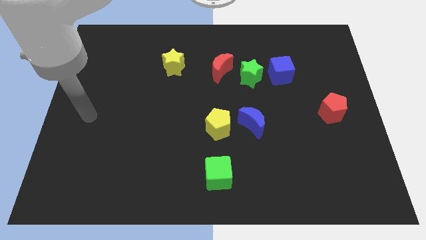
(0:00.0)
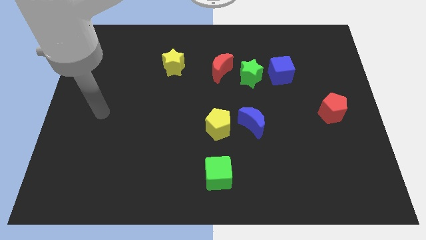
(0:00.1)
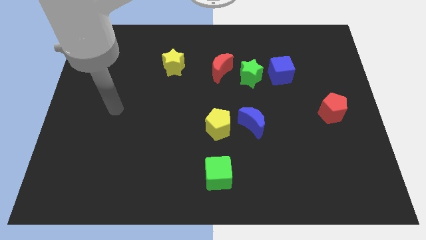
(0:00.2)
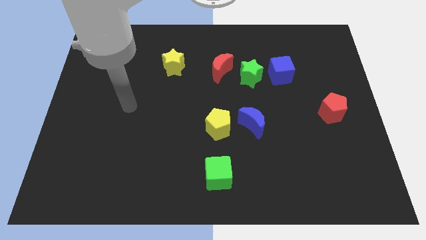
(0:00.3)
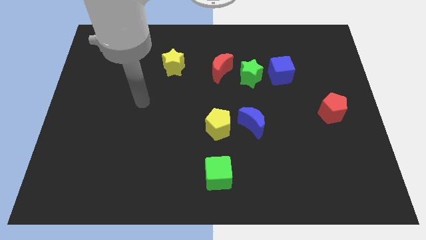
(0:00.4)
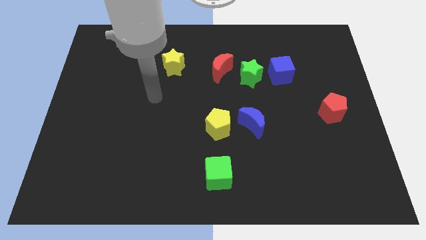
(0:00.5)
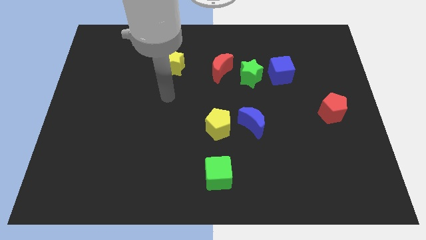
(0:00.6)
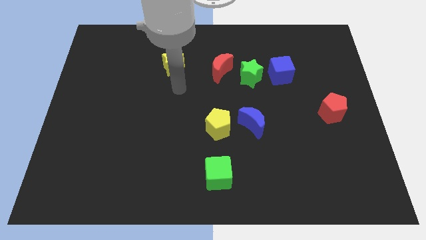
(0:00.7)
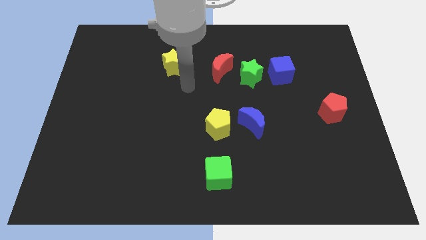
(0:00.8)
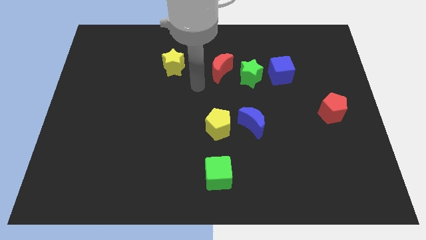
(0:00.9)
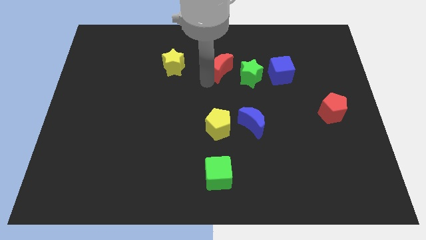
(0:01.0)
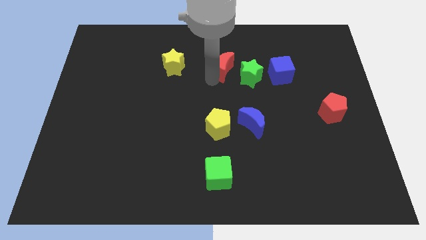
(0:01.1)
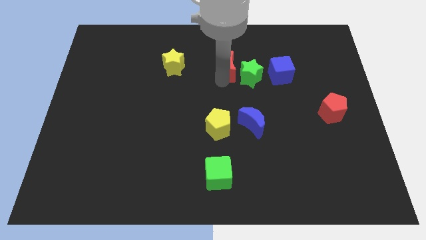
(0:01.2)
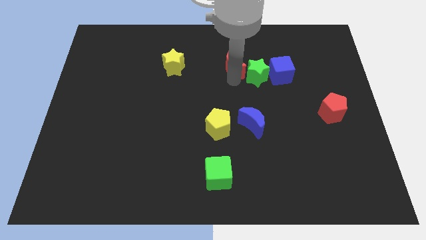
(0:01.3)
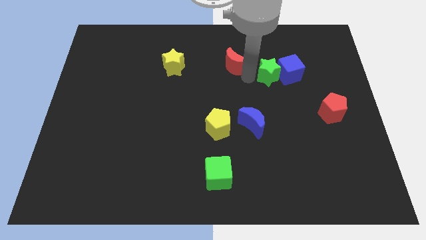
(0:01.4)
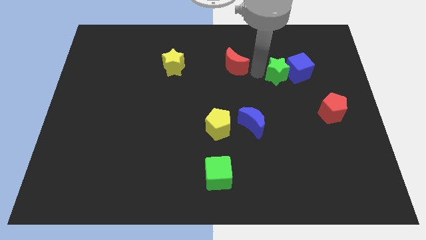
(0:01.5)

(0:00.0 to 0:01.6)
separate the red moon from the green star

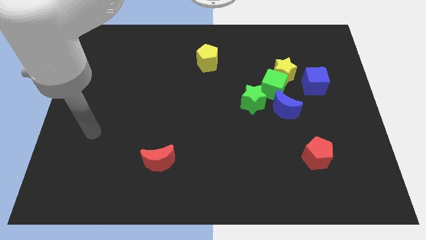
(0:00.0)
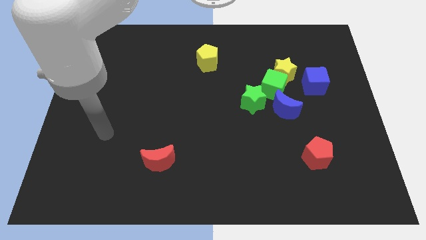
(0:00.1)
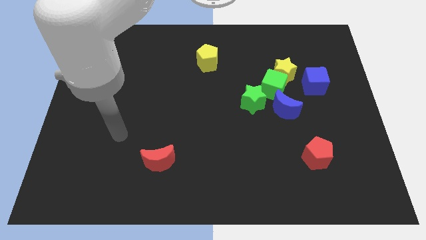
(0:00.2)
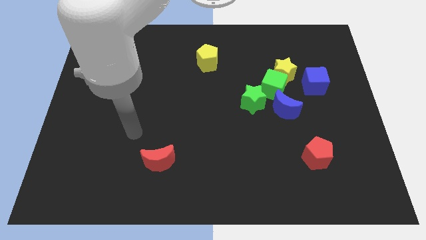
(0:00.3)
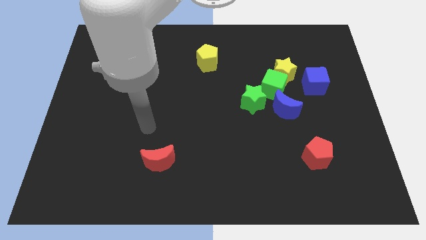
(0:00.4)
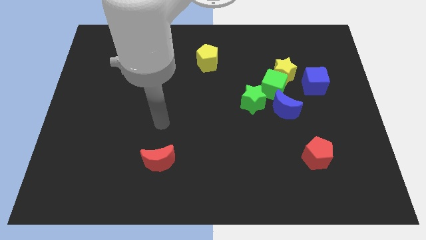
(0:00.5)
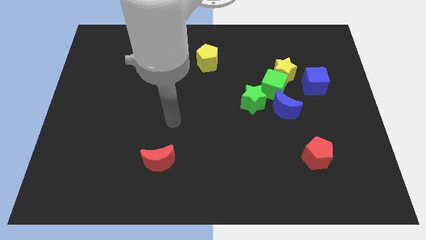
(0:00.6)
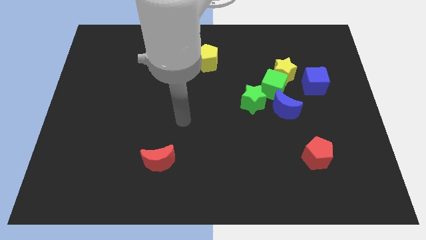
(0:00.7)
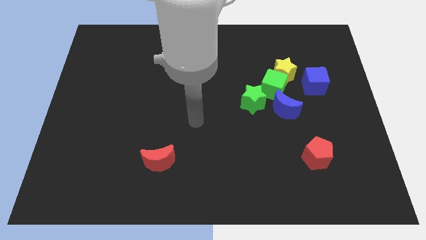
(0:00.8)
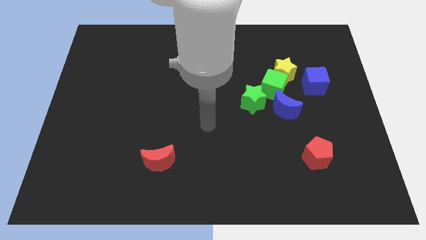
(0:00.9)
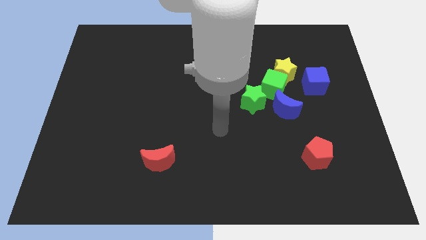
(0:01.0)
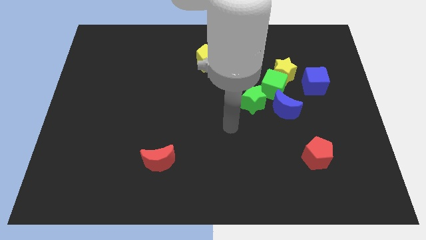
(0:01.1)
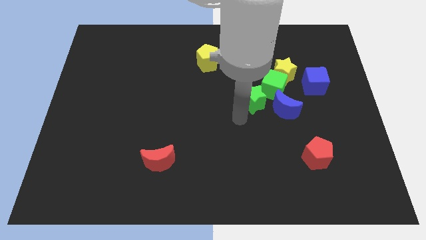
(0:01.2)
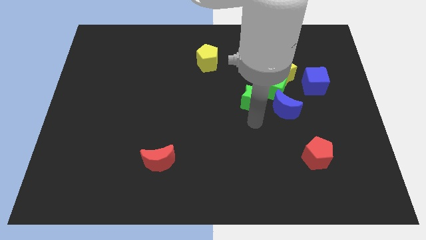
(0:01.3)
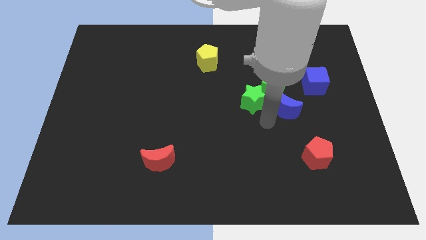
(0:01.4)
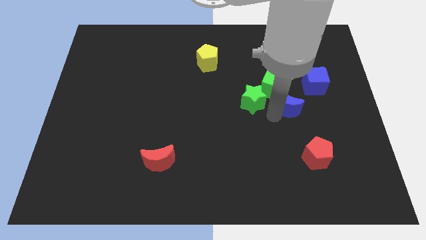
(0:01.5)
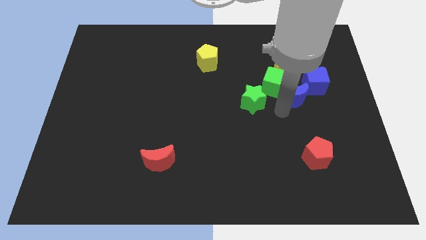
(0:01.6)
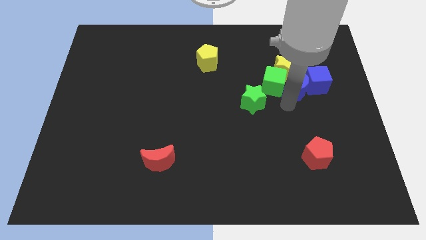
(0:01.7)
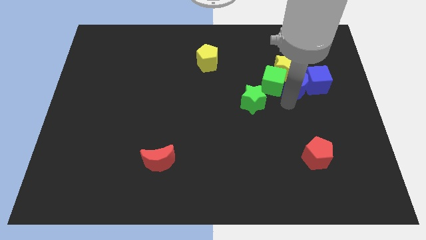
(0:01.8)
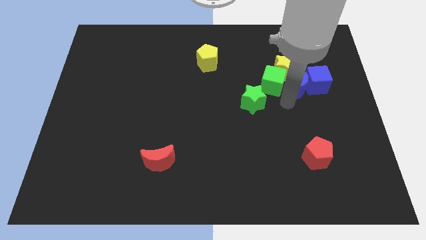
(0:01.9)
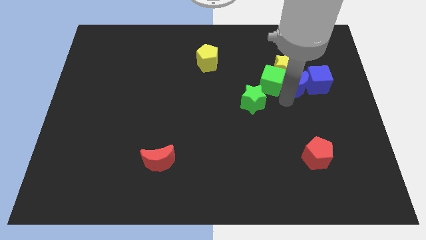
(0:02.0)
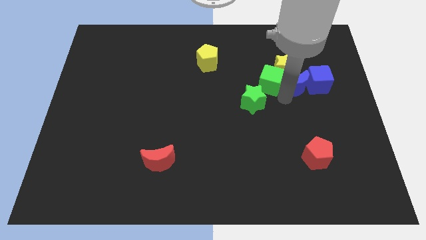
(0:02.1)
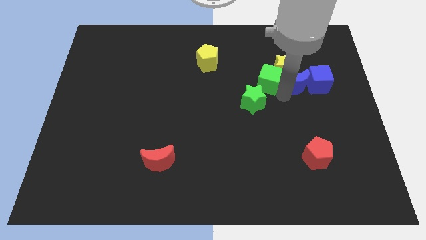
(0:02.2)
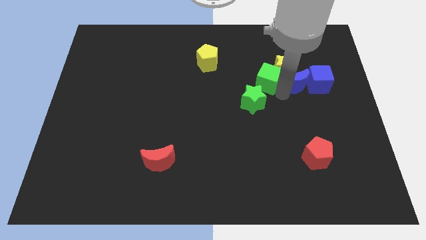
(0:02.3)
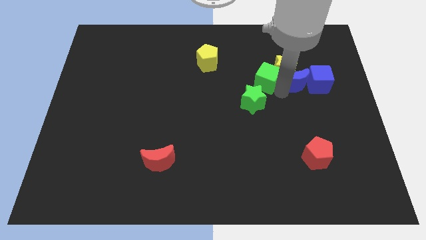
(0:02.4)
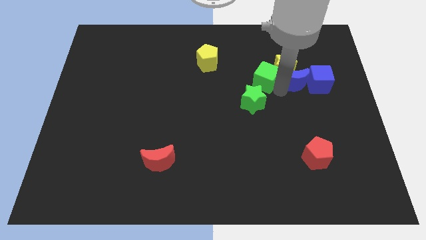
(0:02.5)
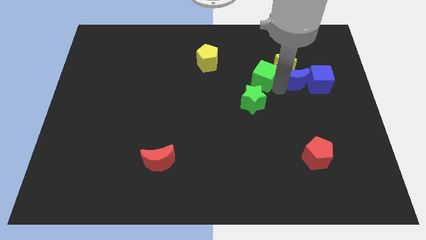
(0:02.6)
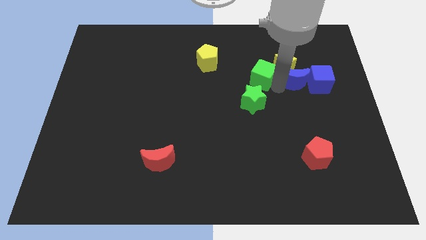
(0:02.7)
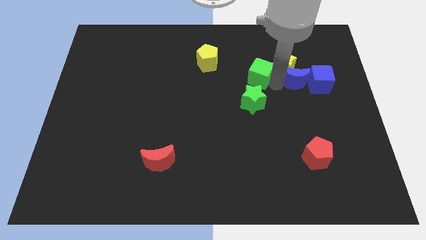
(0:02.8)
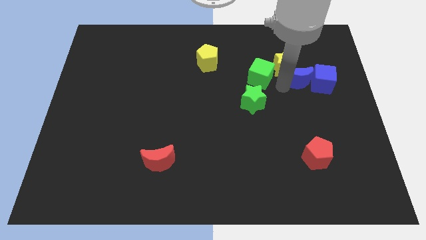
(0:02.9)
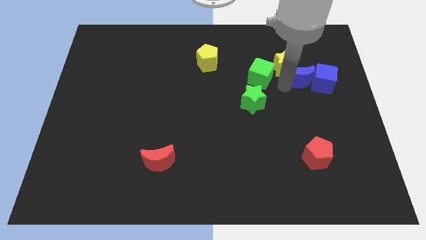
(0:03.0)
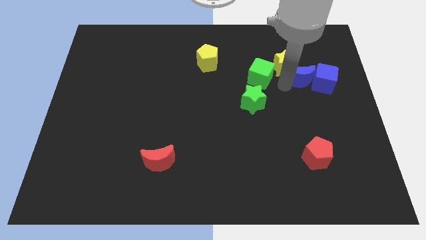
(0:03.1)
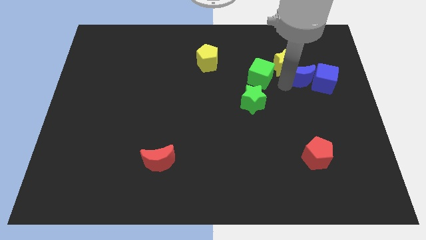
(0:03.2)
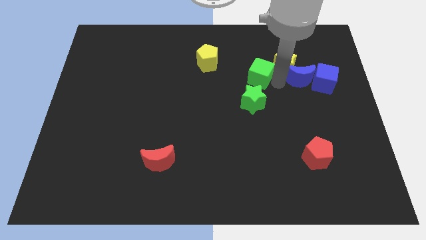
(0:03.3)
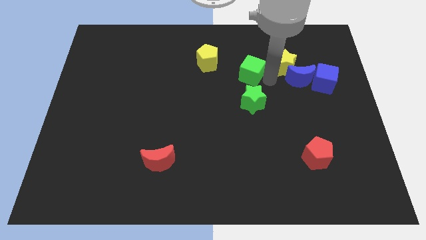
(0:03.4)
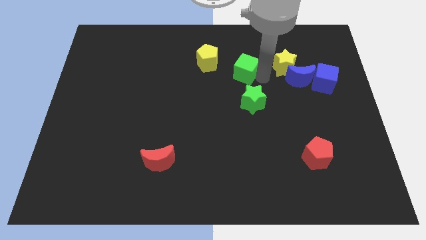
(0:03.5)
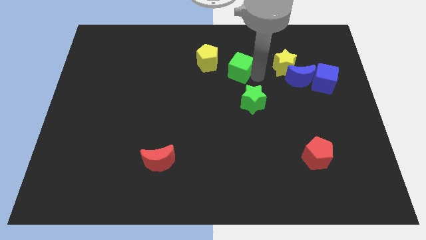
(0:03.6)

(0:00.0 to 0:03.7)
move the green cube away from the group

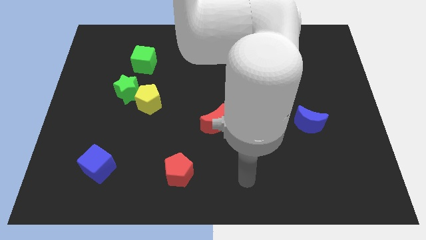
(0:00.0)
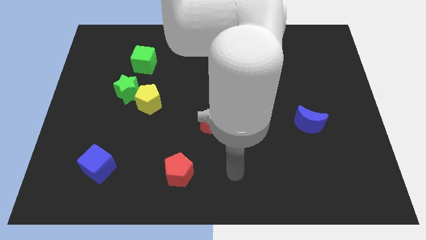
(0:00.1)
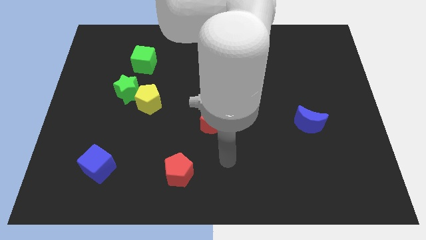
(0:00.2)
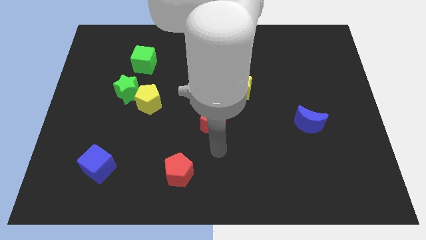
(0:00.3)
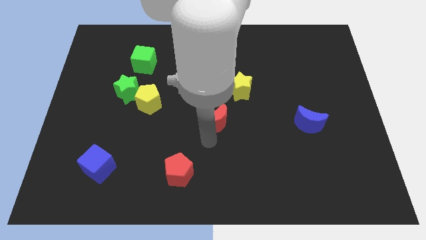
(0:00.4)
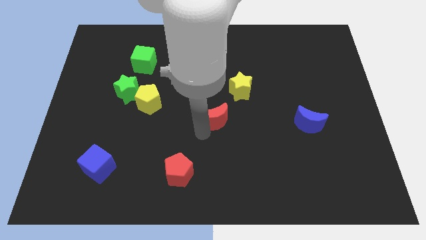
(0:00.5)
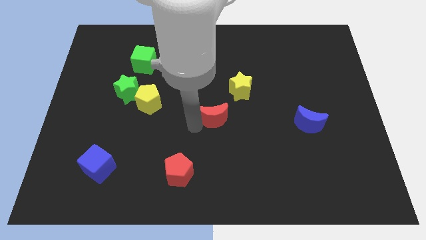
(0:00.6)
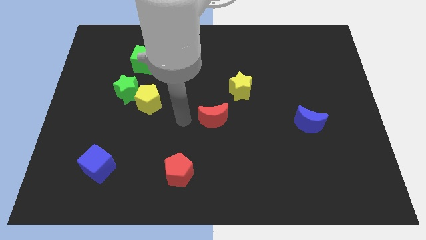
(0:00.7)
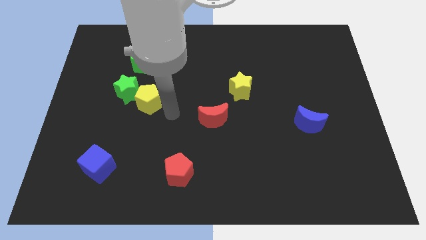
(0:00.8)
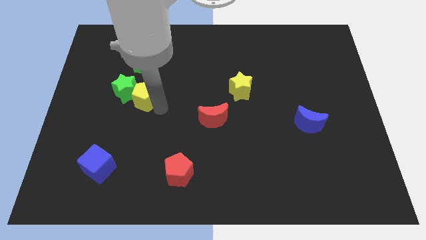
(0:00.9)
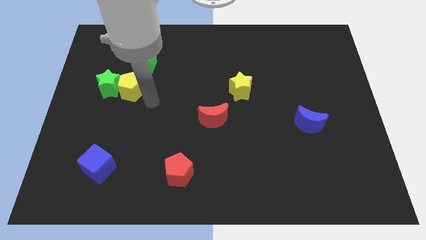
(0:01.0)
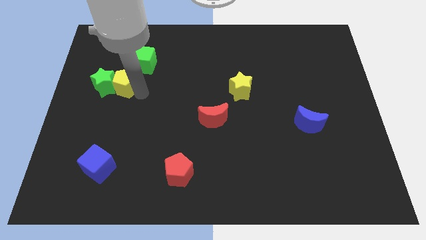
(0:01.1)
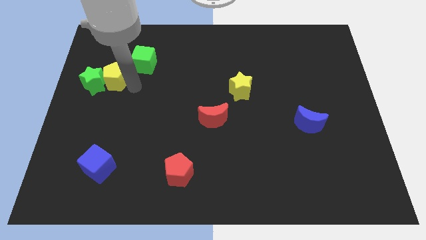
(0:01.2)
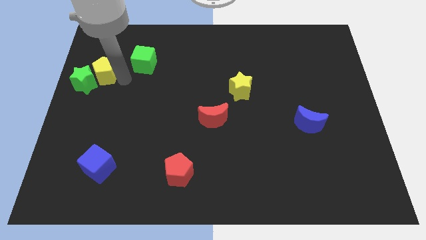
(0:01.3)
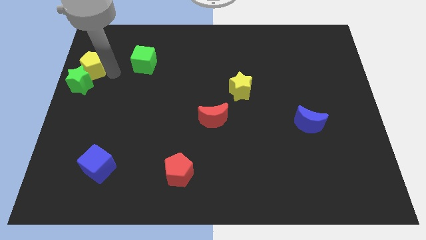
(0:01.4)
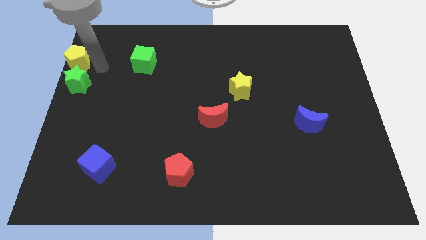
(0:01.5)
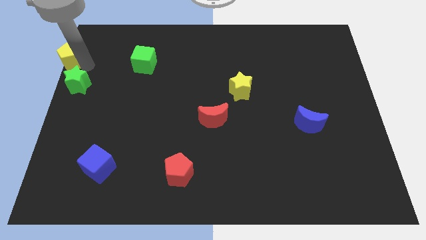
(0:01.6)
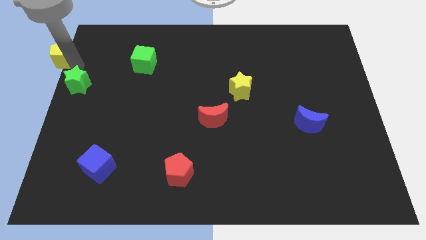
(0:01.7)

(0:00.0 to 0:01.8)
separate the green star from the yellow pentagon

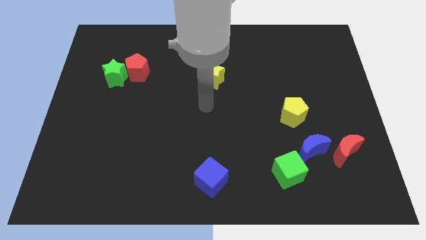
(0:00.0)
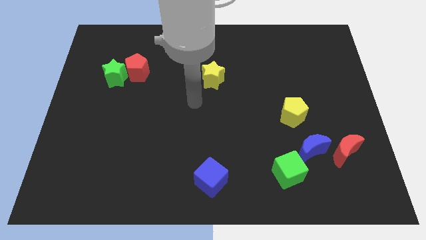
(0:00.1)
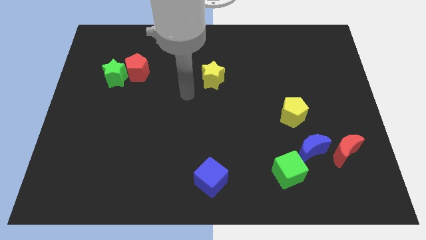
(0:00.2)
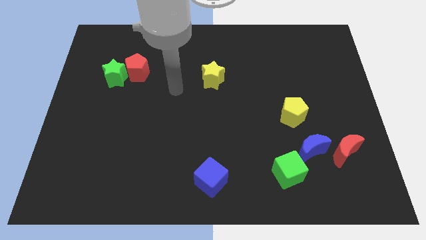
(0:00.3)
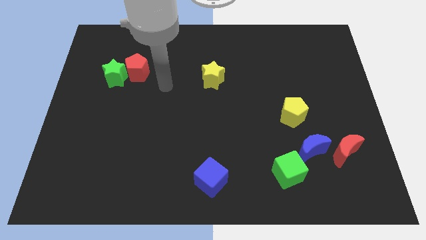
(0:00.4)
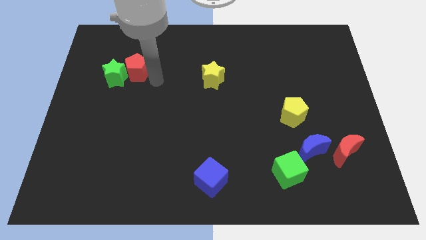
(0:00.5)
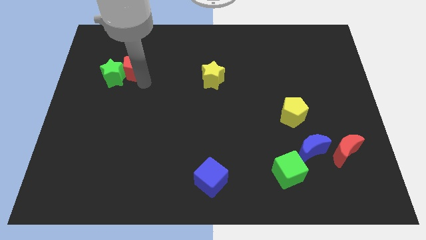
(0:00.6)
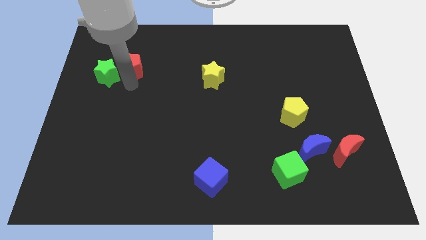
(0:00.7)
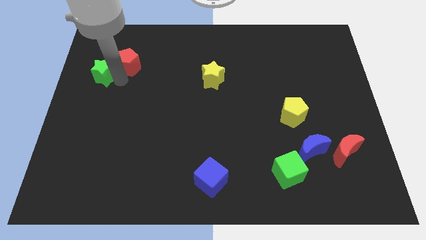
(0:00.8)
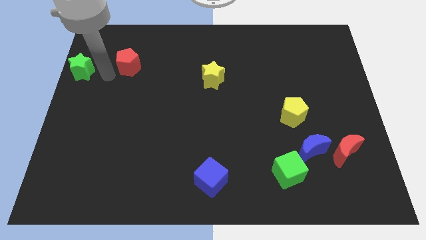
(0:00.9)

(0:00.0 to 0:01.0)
pull the red pentagon apart from the green star

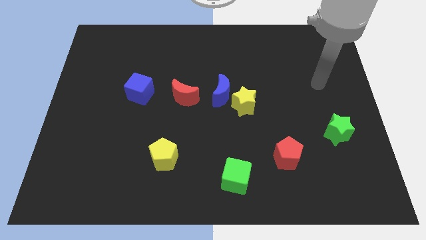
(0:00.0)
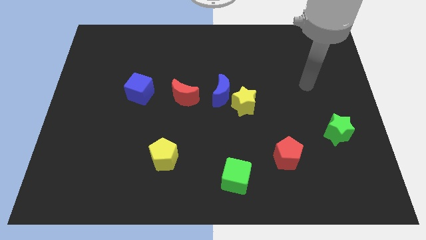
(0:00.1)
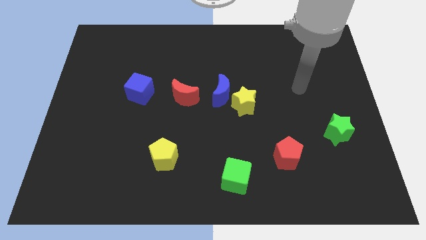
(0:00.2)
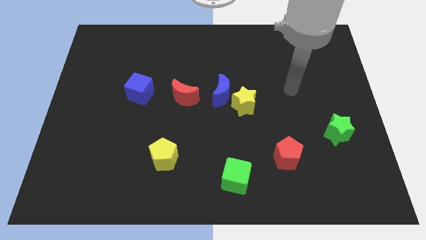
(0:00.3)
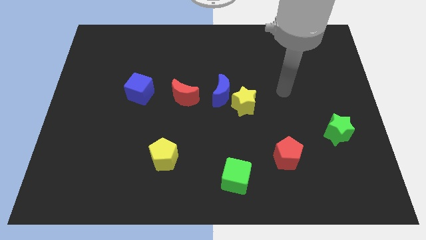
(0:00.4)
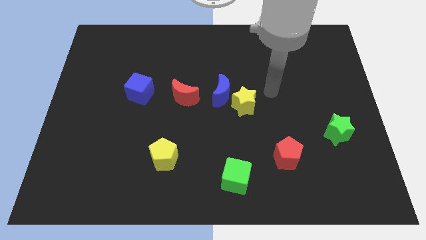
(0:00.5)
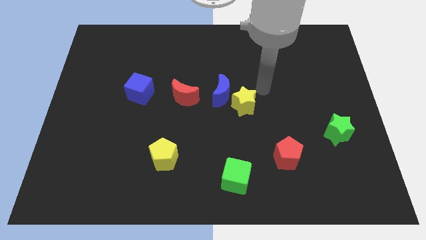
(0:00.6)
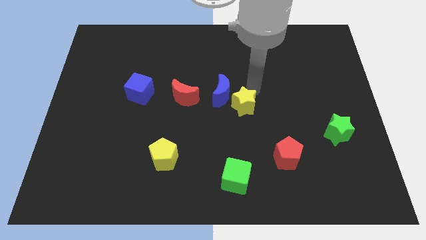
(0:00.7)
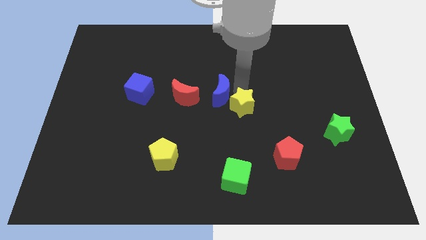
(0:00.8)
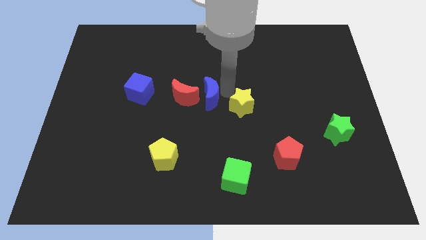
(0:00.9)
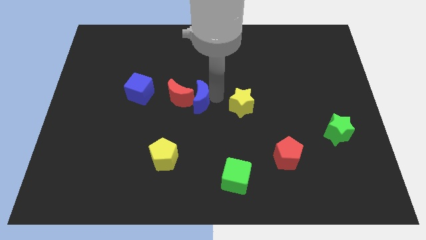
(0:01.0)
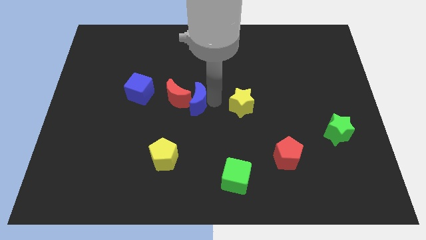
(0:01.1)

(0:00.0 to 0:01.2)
separate the yellow star from the blue moon
